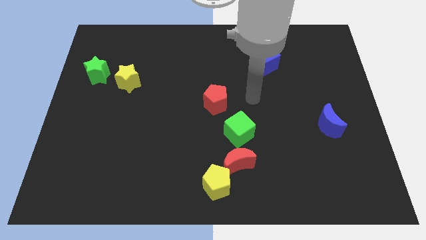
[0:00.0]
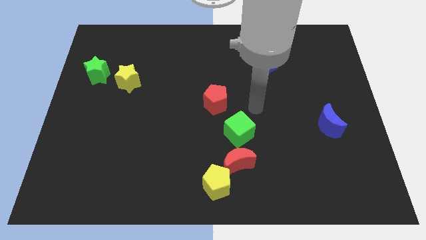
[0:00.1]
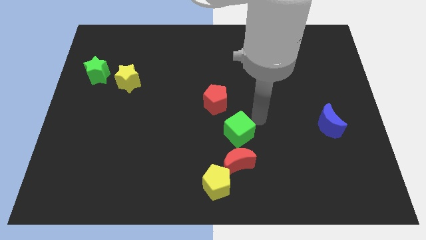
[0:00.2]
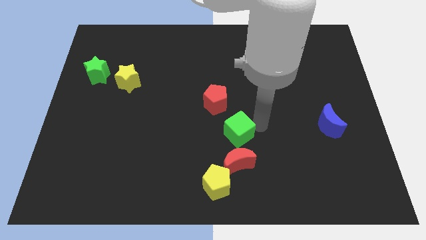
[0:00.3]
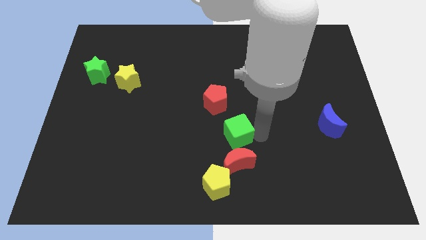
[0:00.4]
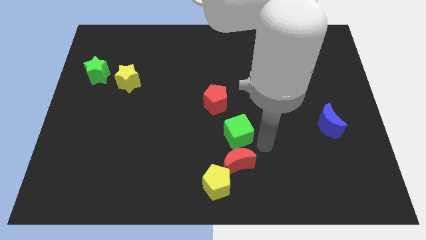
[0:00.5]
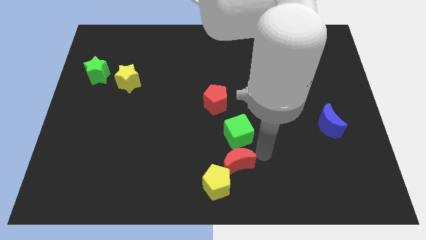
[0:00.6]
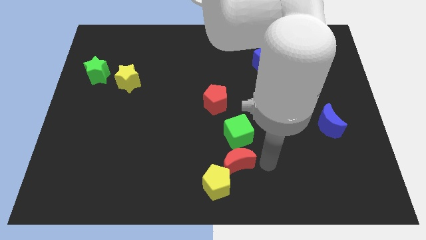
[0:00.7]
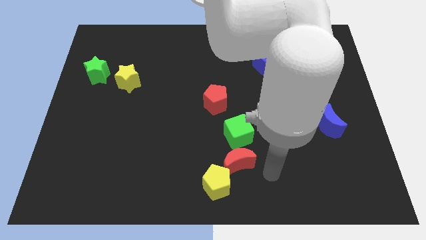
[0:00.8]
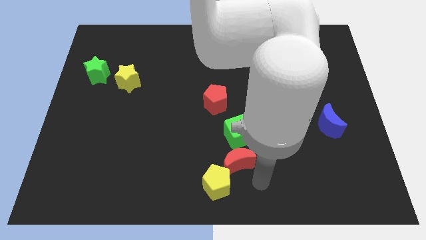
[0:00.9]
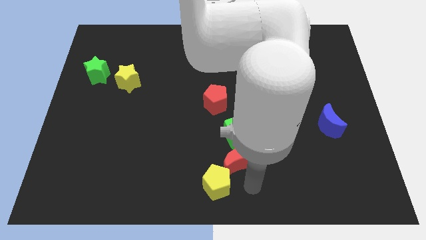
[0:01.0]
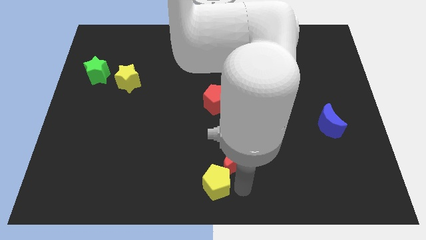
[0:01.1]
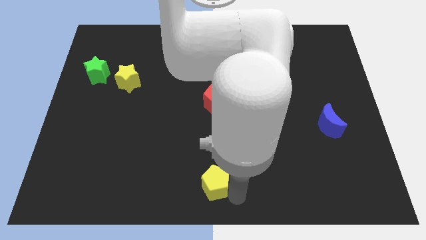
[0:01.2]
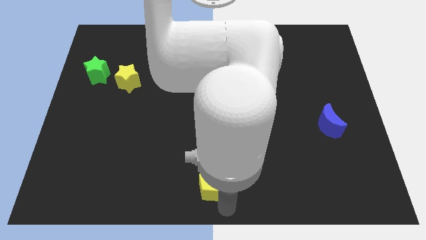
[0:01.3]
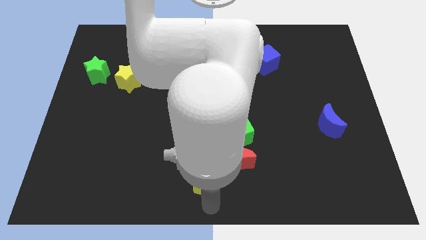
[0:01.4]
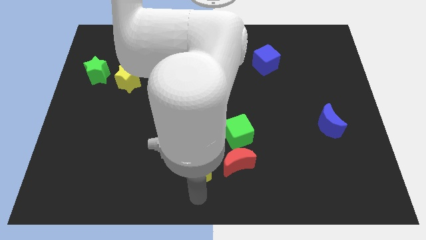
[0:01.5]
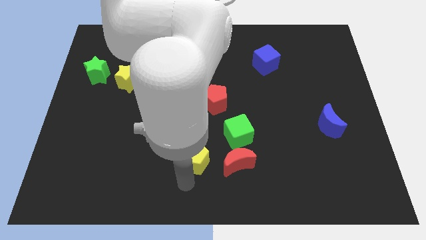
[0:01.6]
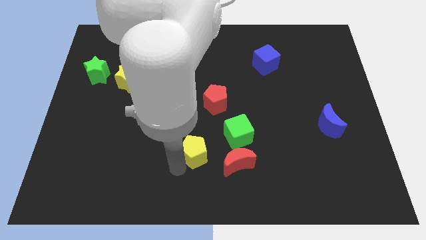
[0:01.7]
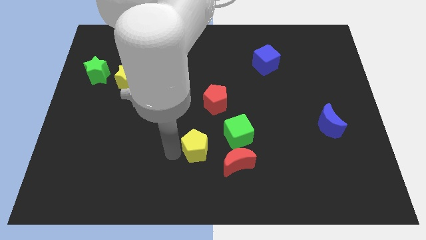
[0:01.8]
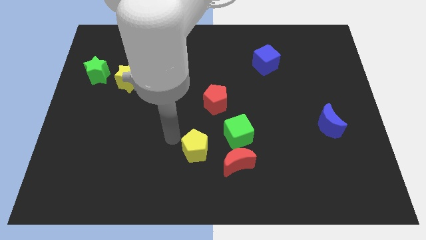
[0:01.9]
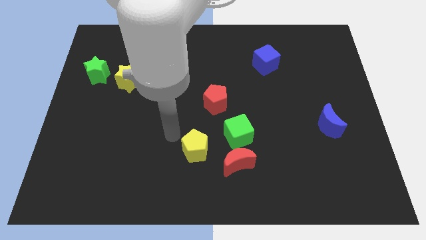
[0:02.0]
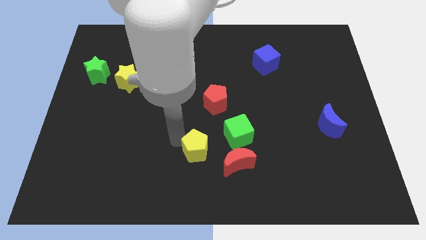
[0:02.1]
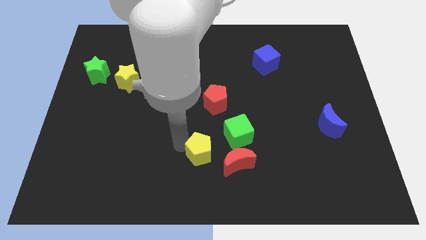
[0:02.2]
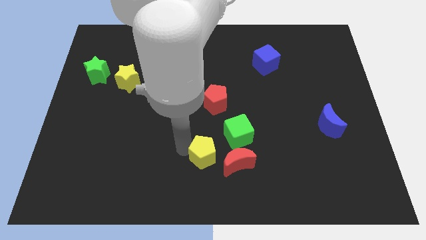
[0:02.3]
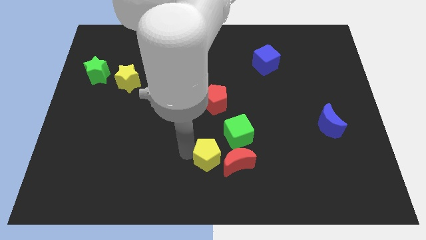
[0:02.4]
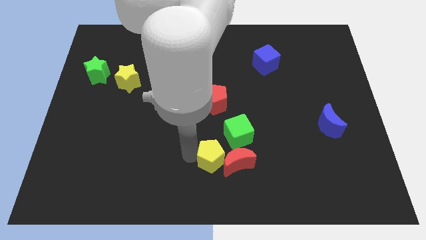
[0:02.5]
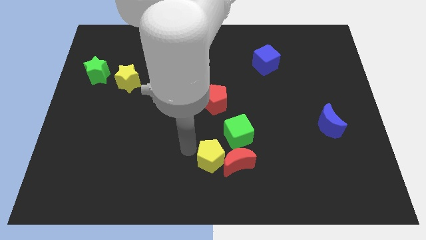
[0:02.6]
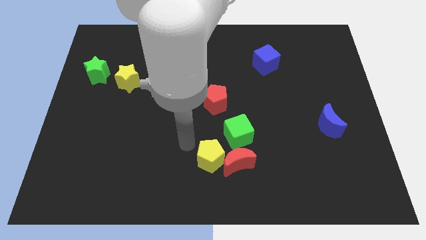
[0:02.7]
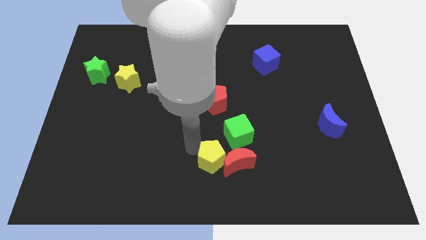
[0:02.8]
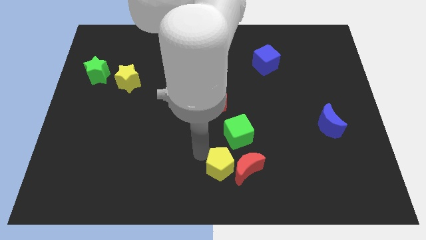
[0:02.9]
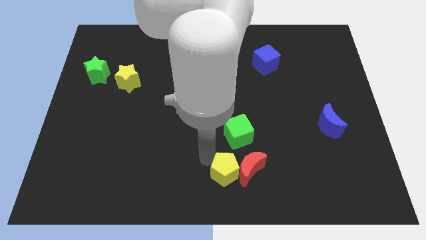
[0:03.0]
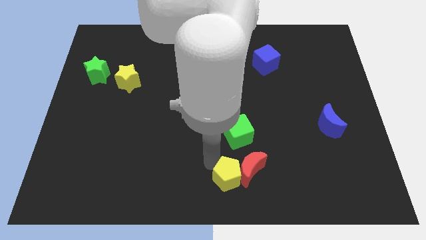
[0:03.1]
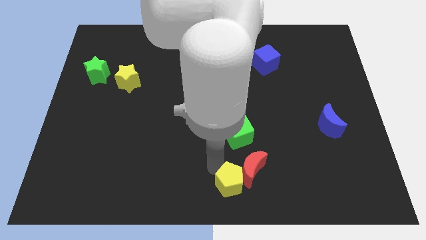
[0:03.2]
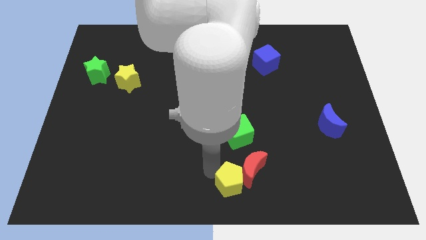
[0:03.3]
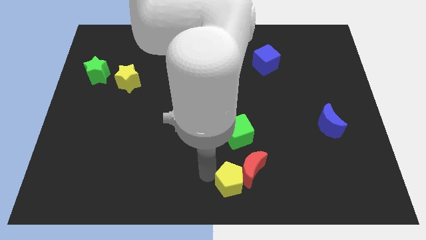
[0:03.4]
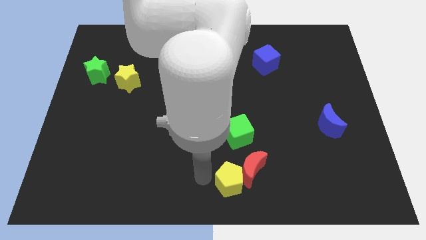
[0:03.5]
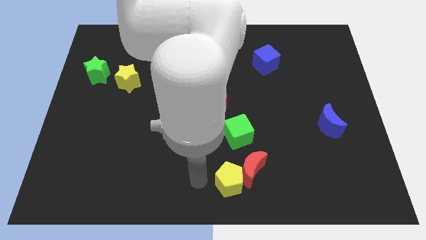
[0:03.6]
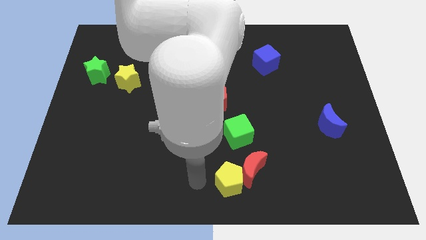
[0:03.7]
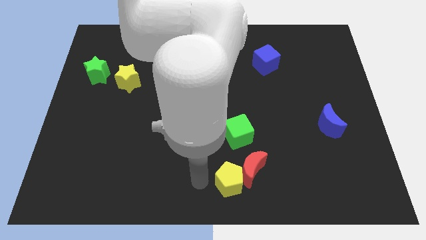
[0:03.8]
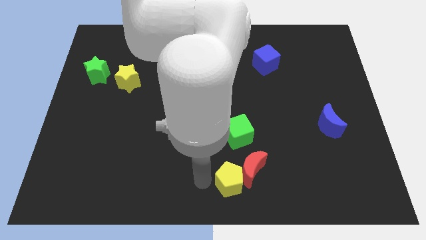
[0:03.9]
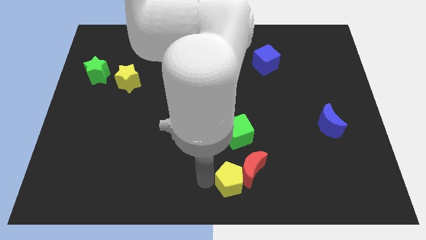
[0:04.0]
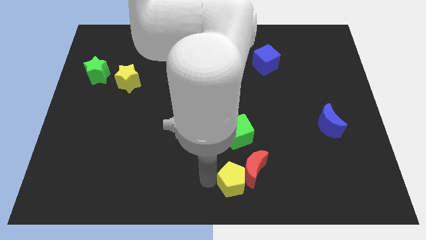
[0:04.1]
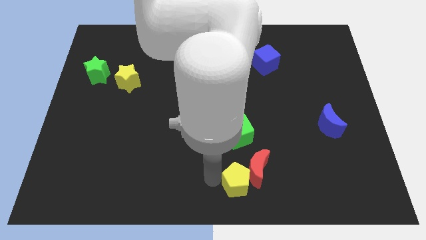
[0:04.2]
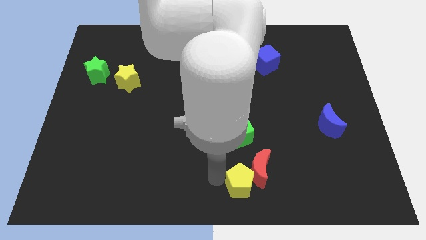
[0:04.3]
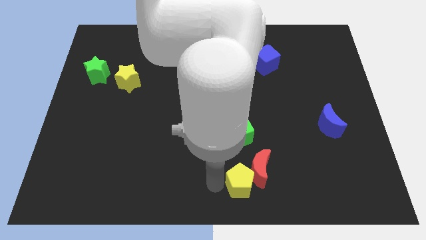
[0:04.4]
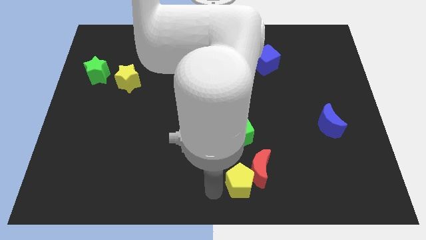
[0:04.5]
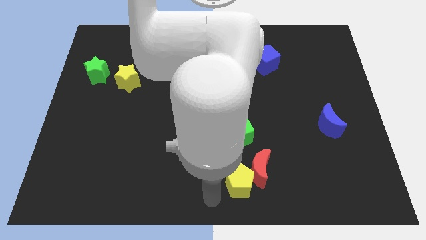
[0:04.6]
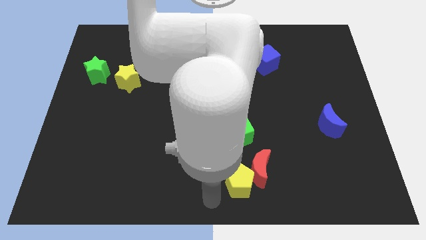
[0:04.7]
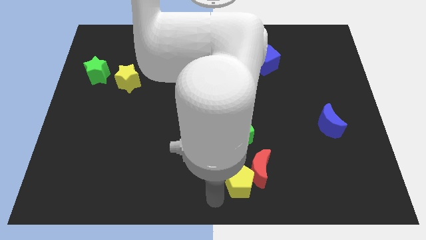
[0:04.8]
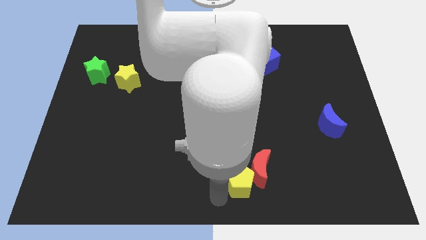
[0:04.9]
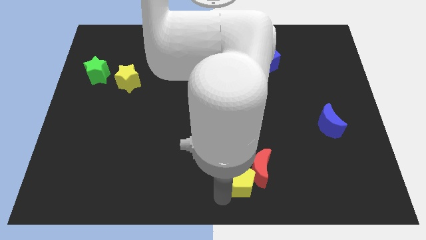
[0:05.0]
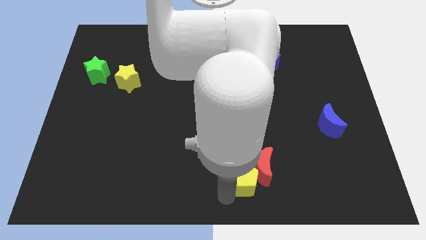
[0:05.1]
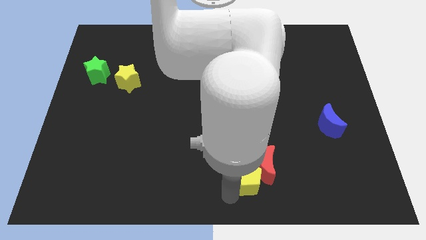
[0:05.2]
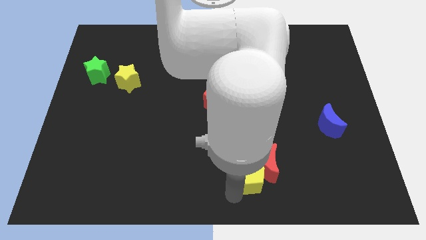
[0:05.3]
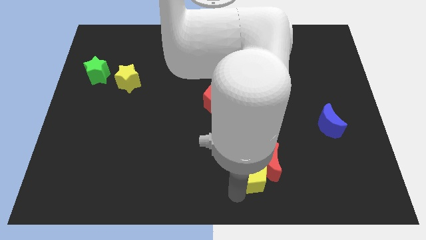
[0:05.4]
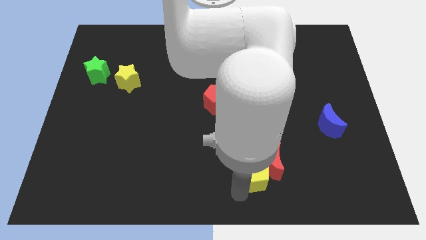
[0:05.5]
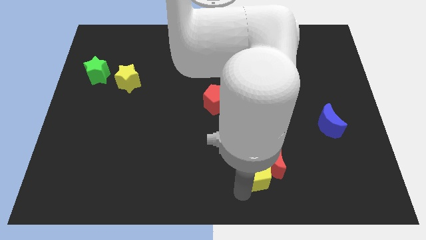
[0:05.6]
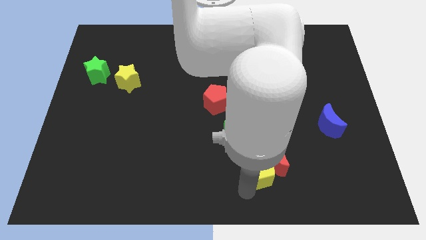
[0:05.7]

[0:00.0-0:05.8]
push the yellow pentagon up and right a bit

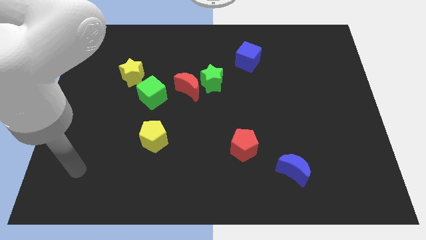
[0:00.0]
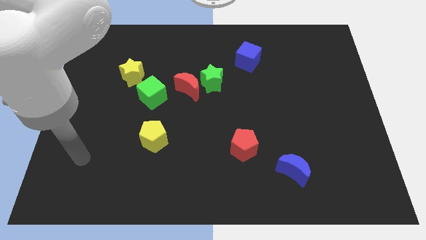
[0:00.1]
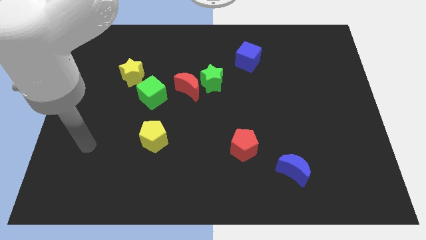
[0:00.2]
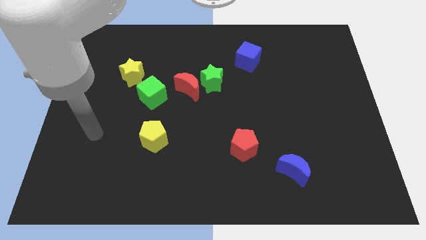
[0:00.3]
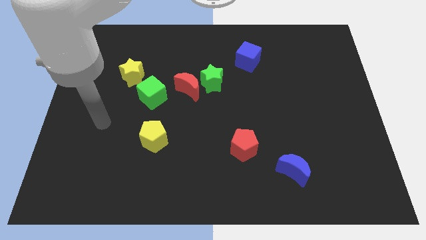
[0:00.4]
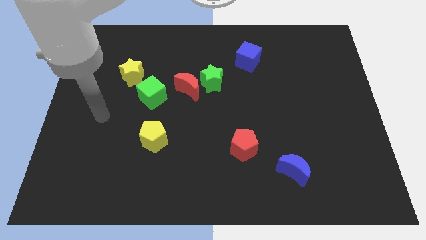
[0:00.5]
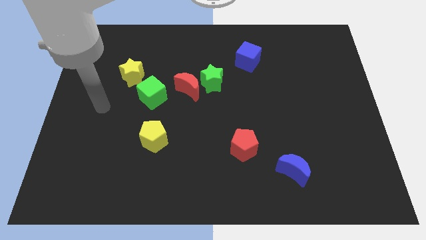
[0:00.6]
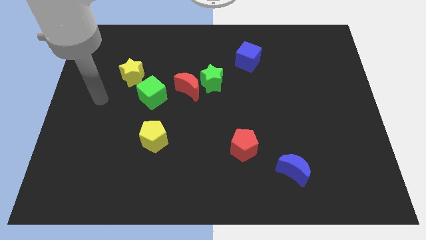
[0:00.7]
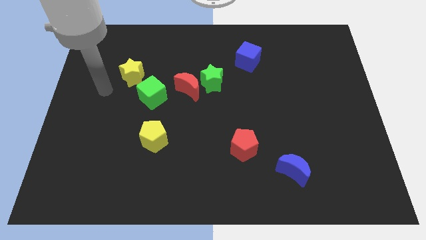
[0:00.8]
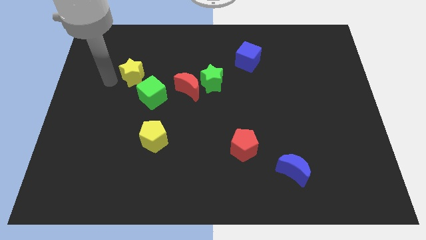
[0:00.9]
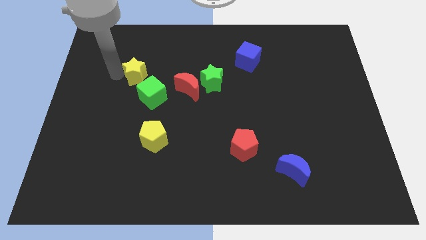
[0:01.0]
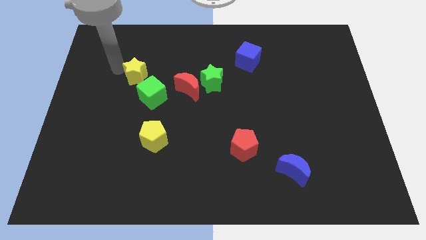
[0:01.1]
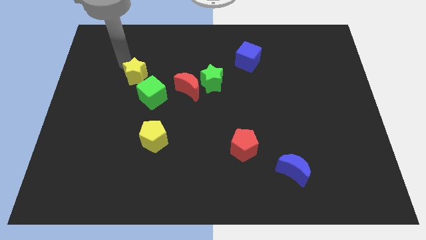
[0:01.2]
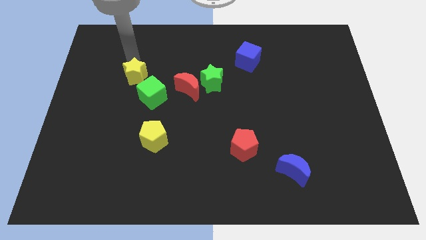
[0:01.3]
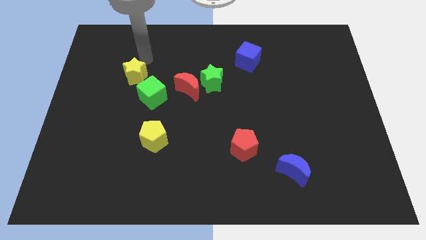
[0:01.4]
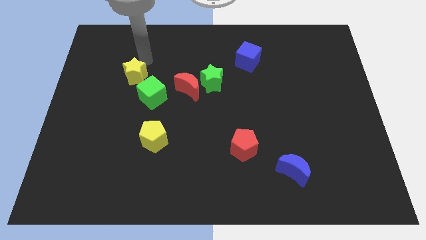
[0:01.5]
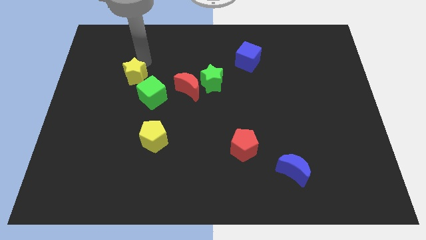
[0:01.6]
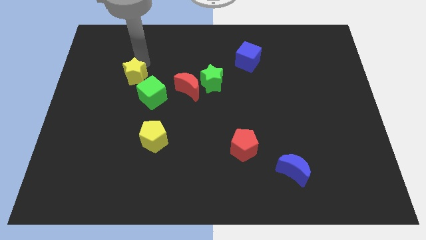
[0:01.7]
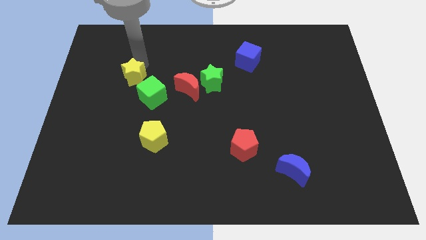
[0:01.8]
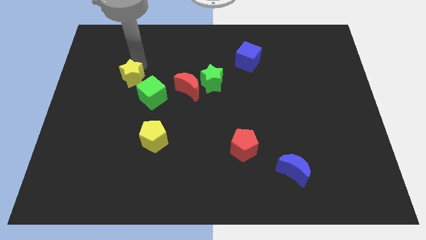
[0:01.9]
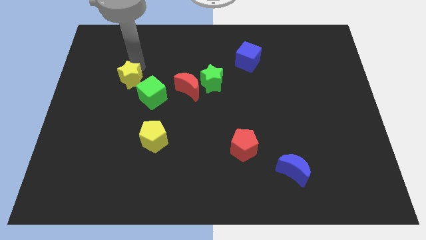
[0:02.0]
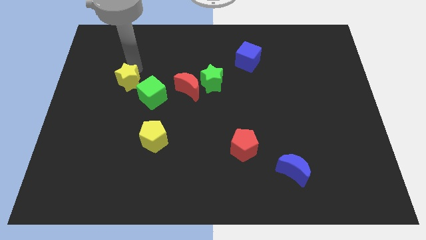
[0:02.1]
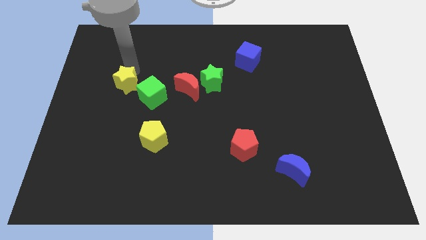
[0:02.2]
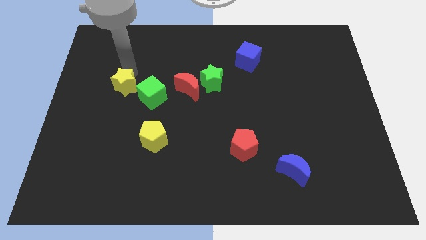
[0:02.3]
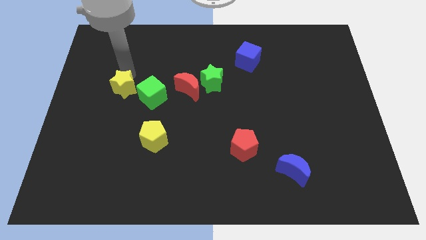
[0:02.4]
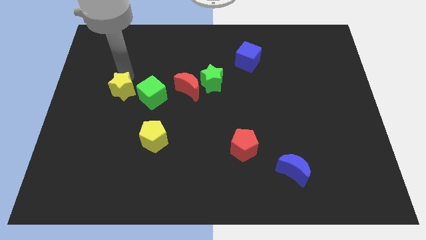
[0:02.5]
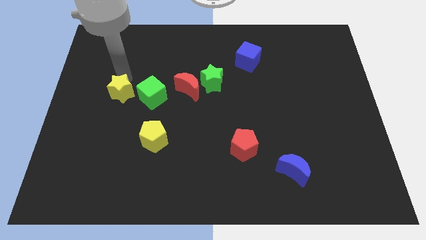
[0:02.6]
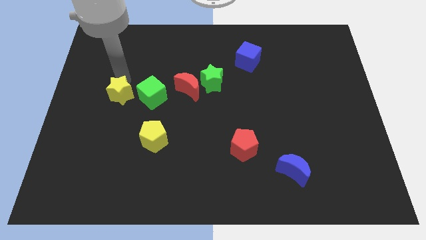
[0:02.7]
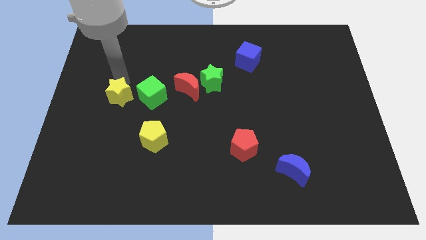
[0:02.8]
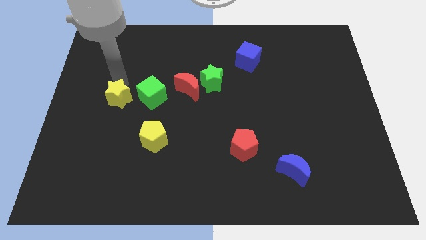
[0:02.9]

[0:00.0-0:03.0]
move the yellow star downwards a little bit
